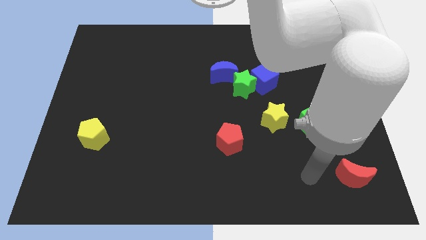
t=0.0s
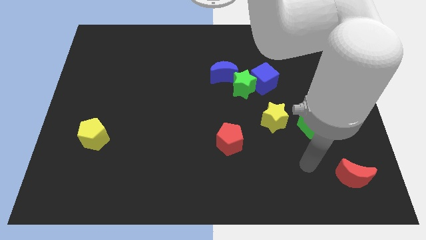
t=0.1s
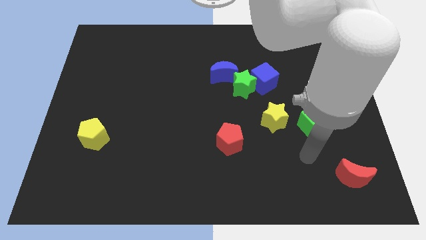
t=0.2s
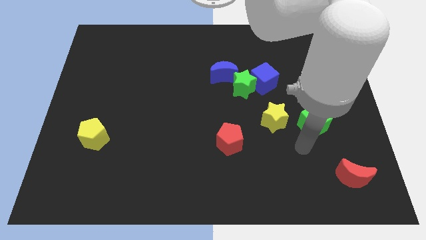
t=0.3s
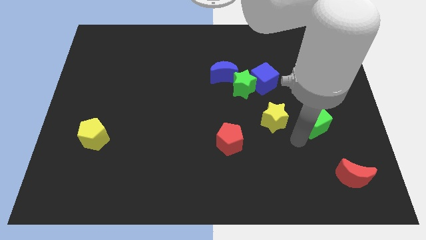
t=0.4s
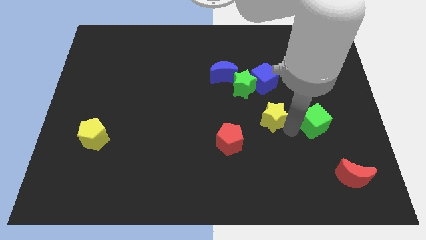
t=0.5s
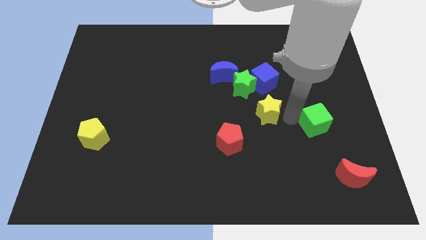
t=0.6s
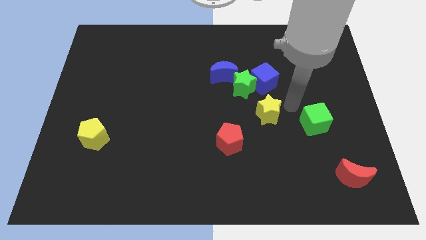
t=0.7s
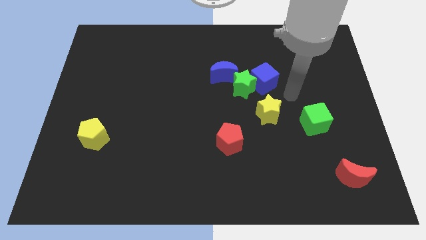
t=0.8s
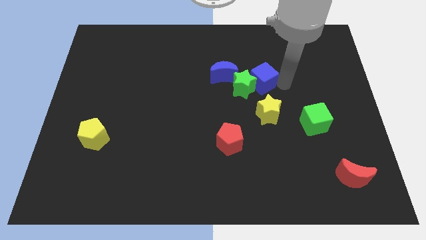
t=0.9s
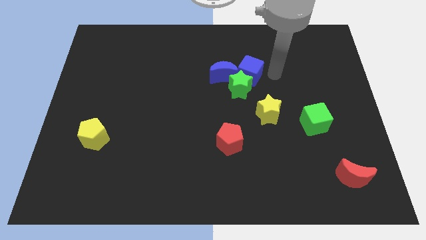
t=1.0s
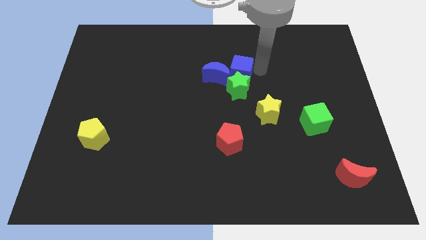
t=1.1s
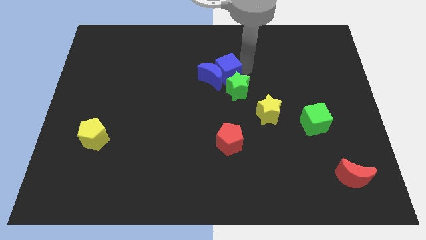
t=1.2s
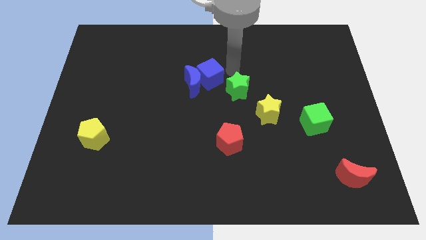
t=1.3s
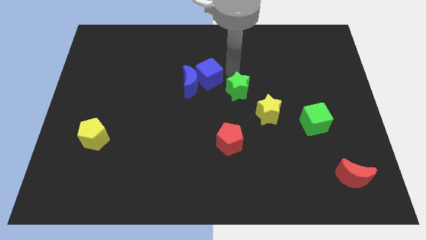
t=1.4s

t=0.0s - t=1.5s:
move the green star away from the blue cube and blue moon

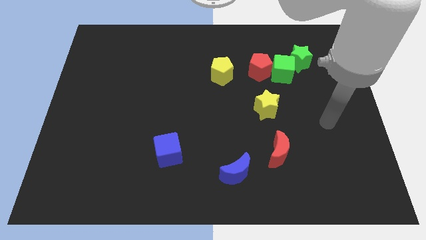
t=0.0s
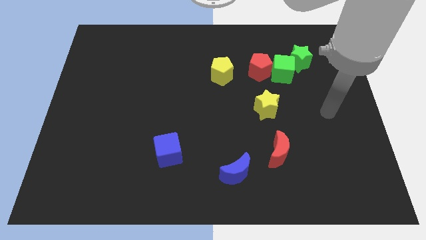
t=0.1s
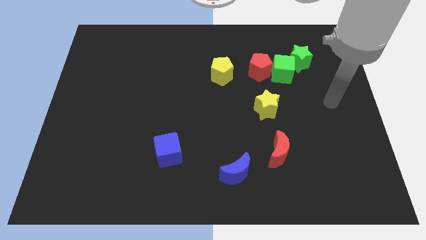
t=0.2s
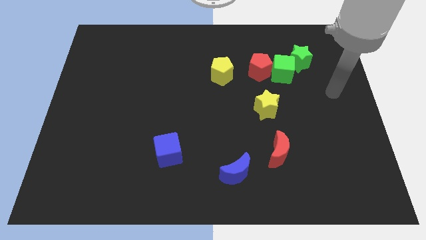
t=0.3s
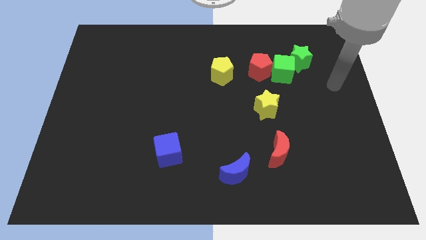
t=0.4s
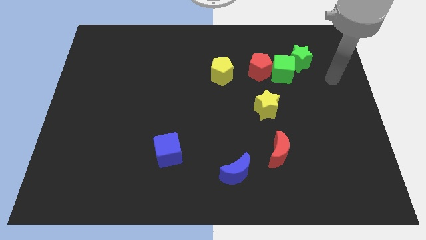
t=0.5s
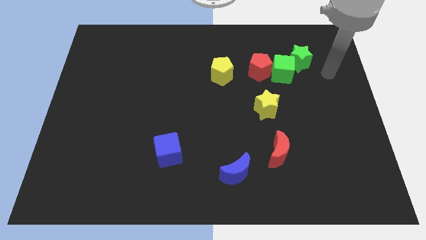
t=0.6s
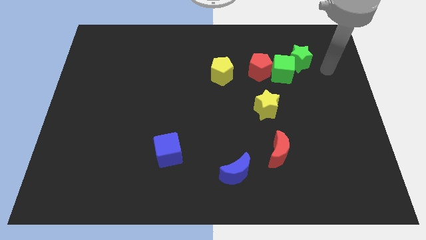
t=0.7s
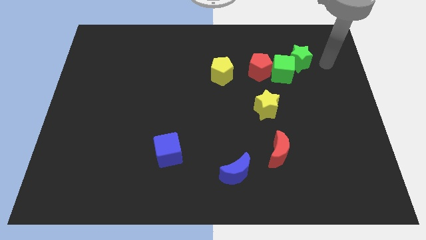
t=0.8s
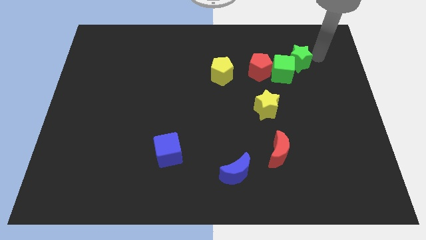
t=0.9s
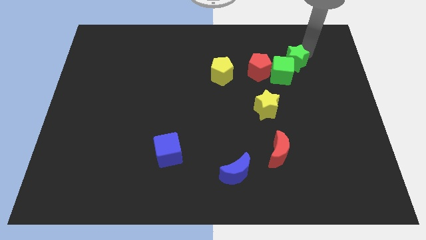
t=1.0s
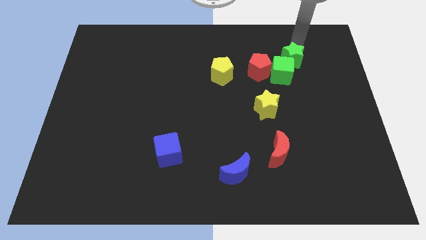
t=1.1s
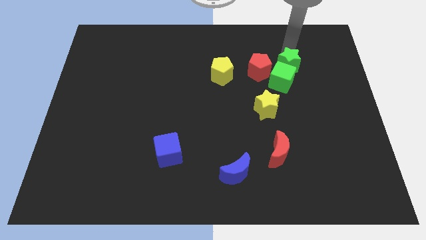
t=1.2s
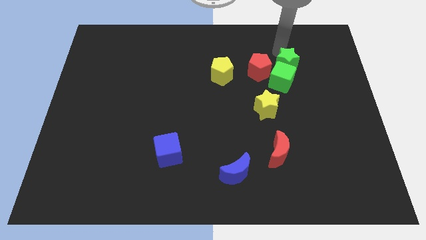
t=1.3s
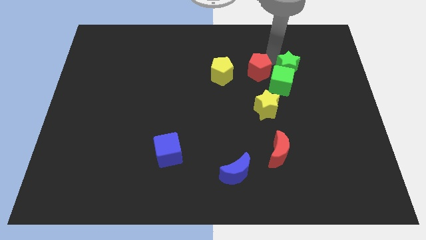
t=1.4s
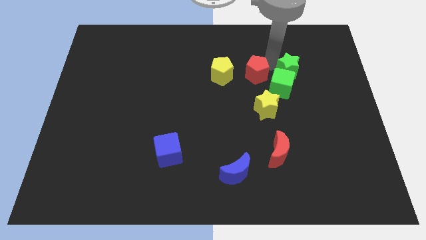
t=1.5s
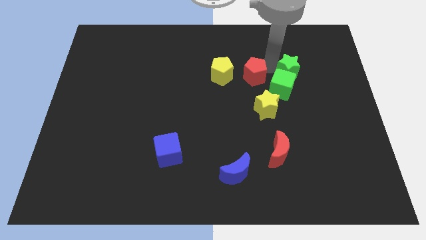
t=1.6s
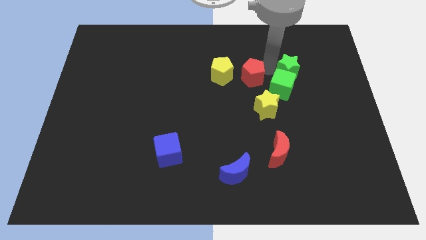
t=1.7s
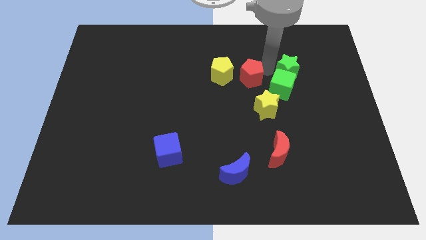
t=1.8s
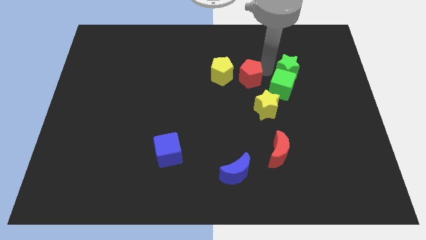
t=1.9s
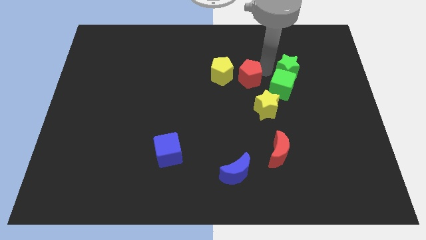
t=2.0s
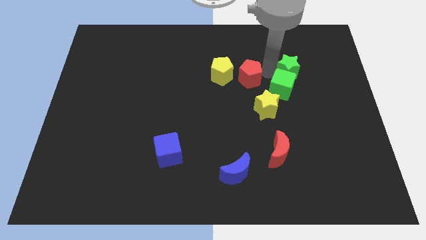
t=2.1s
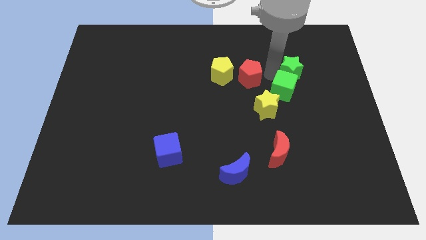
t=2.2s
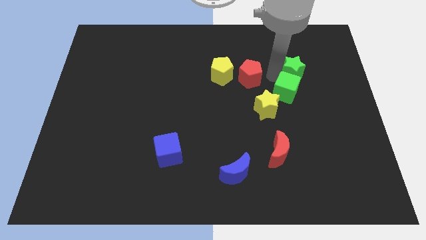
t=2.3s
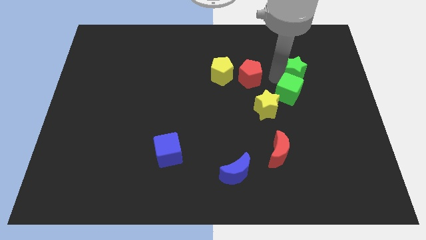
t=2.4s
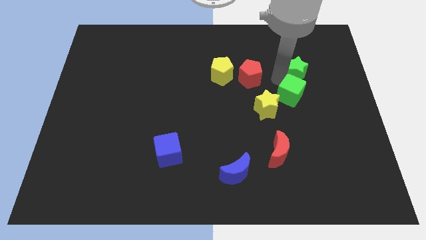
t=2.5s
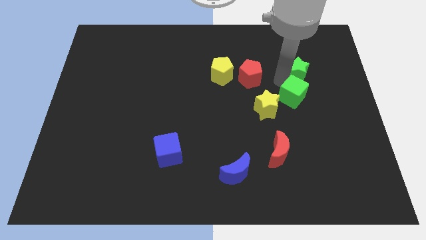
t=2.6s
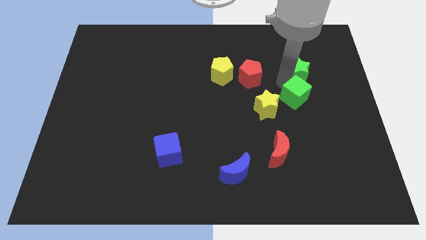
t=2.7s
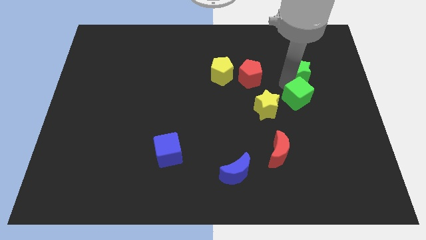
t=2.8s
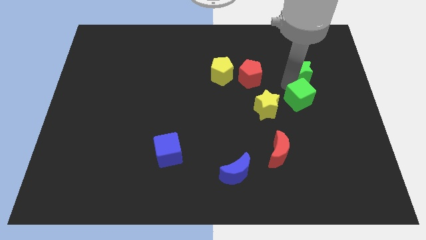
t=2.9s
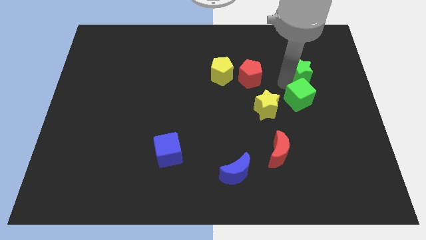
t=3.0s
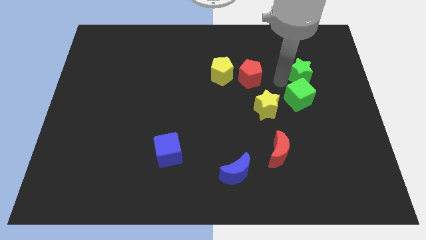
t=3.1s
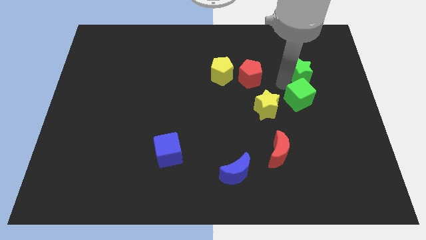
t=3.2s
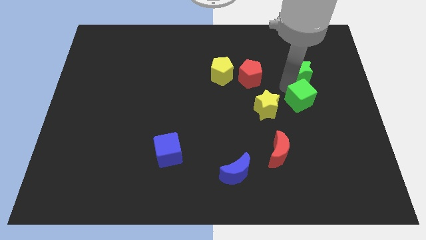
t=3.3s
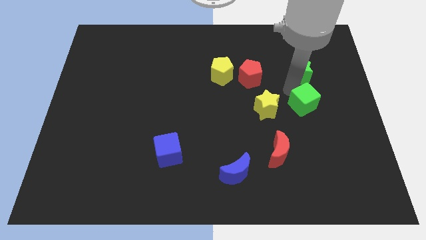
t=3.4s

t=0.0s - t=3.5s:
move the green cube away from the red pentagon and green star

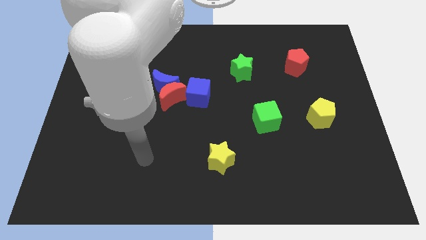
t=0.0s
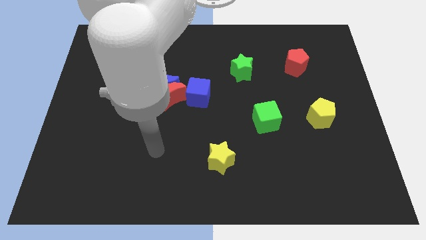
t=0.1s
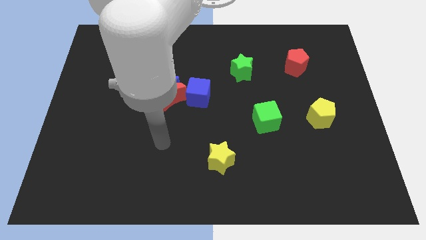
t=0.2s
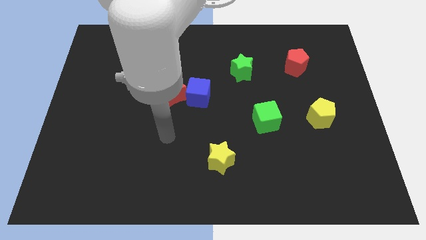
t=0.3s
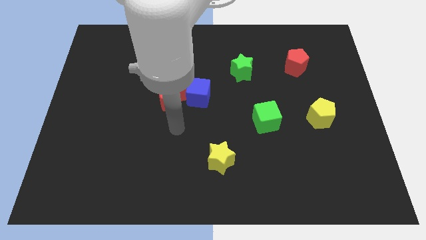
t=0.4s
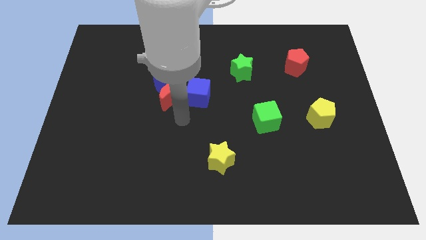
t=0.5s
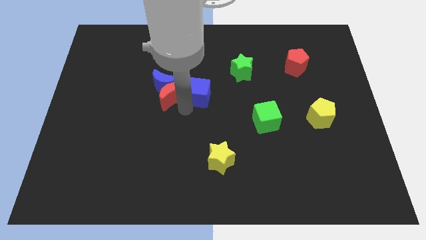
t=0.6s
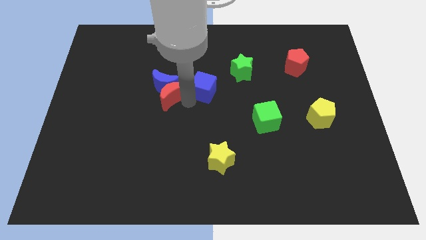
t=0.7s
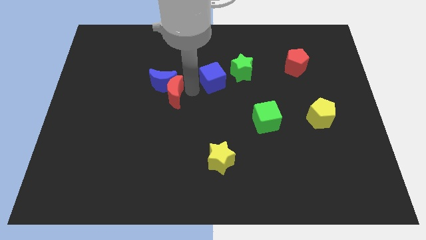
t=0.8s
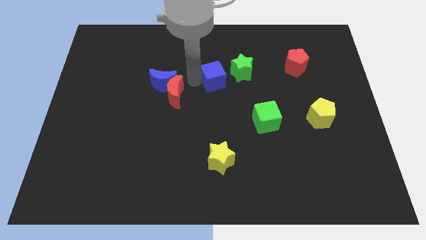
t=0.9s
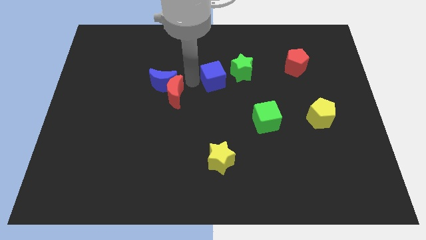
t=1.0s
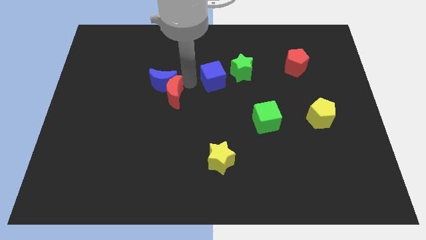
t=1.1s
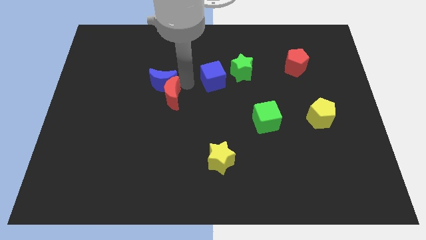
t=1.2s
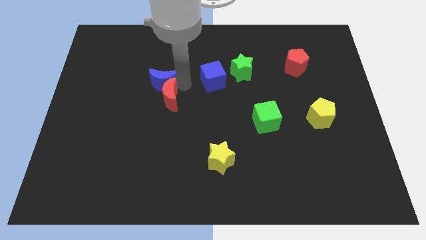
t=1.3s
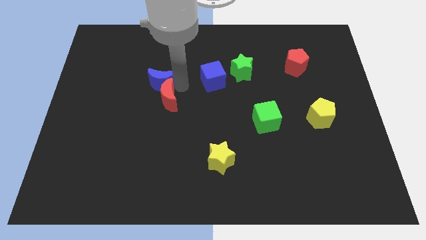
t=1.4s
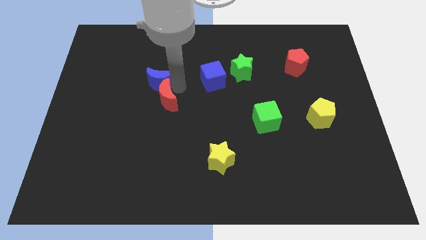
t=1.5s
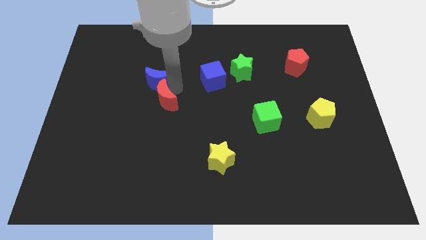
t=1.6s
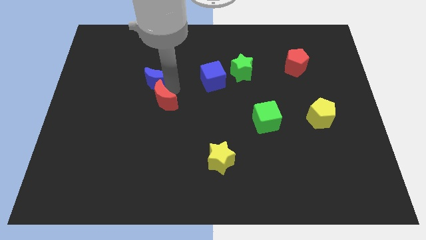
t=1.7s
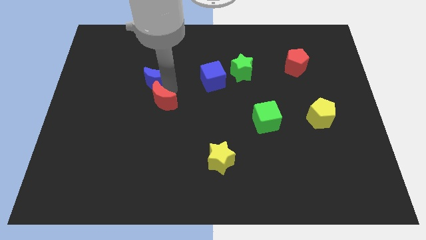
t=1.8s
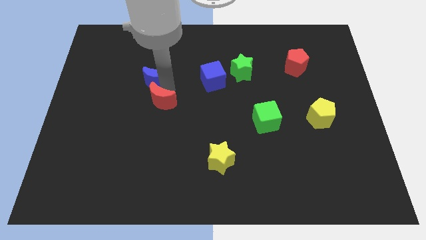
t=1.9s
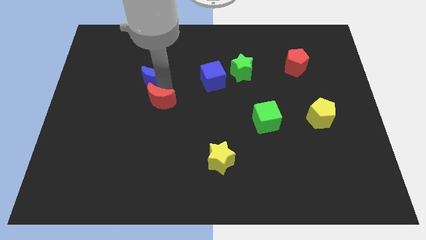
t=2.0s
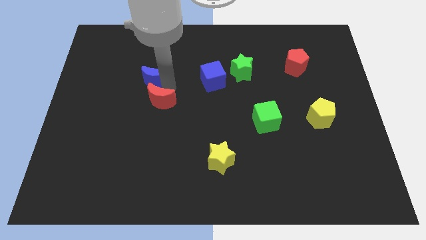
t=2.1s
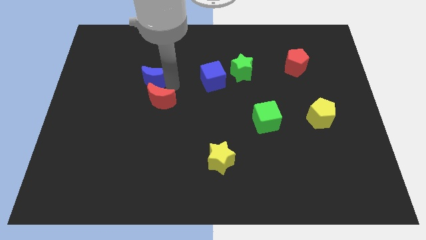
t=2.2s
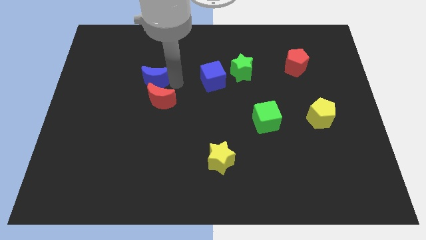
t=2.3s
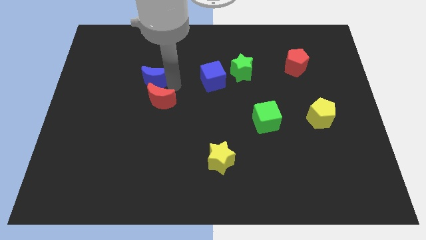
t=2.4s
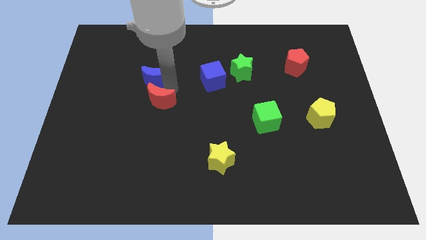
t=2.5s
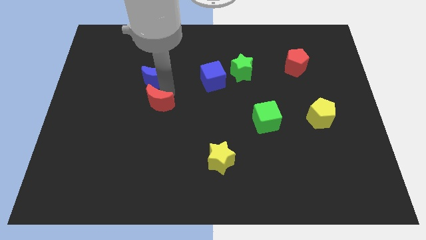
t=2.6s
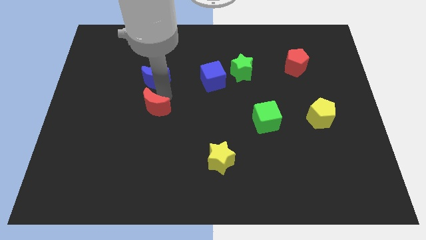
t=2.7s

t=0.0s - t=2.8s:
separate the red moon from the blue moon and blue cube

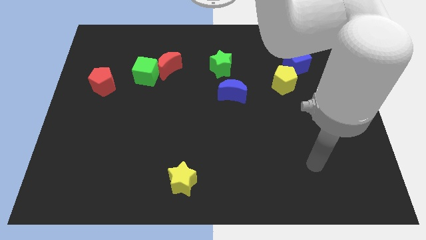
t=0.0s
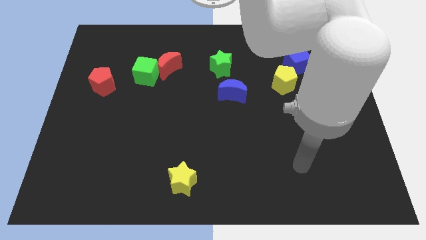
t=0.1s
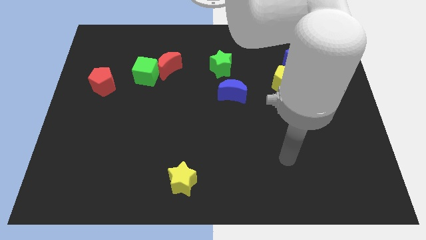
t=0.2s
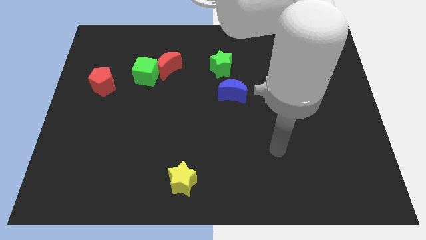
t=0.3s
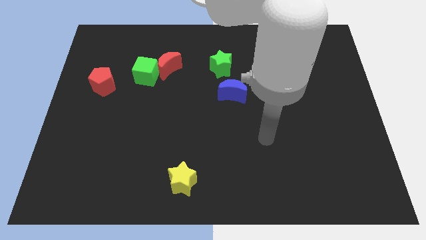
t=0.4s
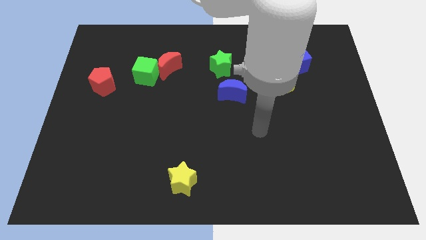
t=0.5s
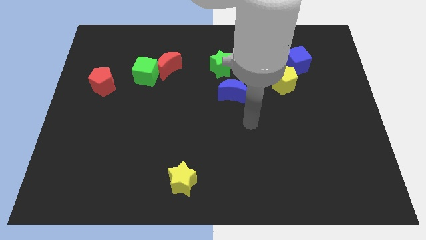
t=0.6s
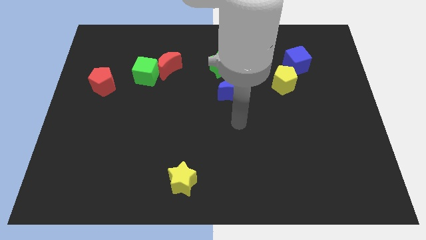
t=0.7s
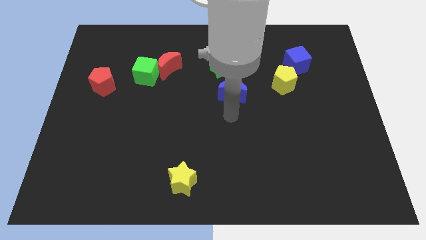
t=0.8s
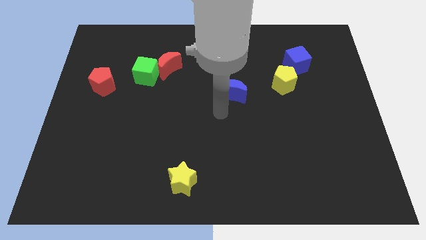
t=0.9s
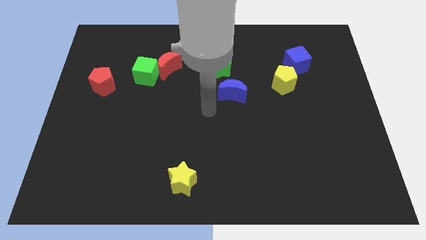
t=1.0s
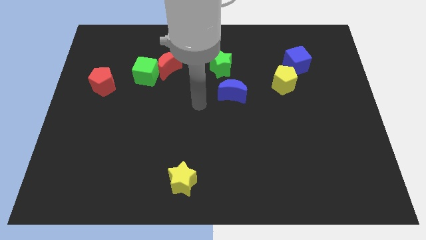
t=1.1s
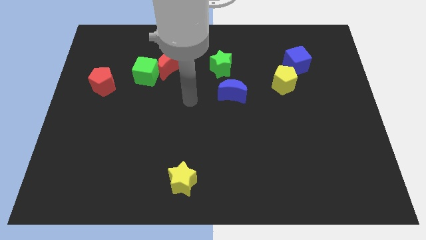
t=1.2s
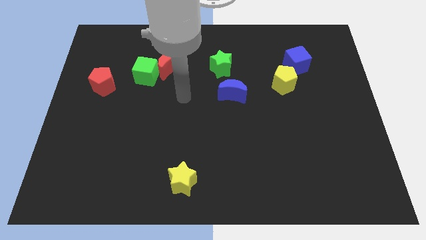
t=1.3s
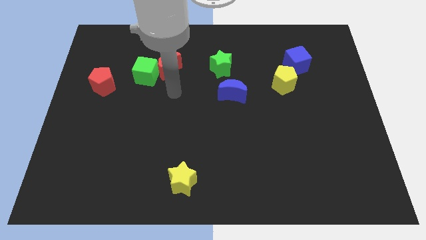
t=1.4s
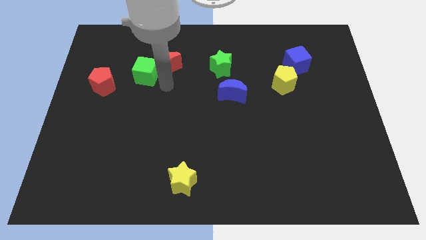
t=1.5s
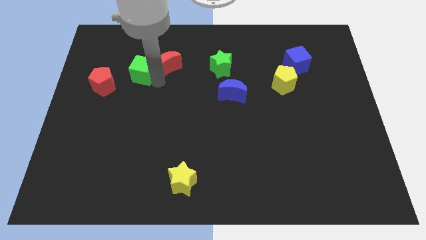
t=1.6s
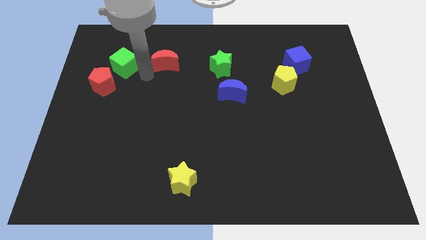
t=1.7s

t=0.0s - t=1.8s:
move the red moon away from the green cube
